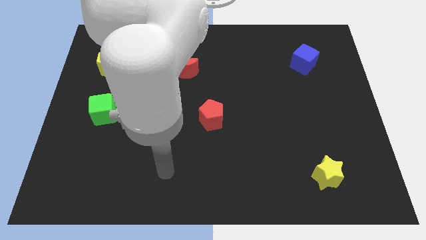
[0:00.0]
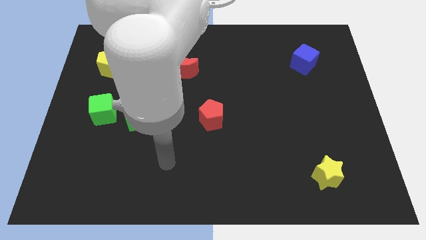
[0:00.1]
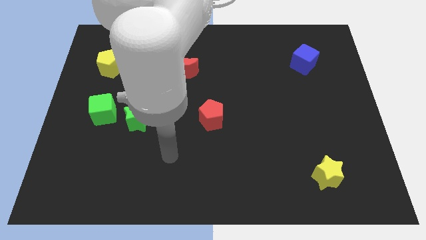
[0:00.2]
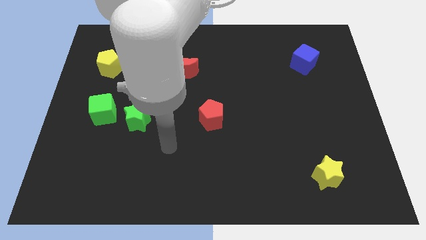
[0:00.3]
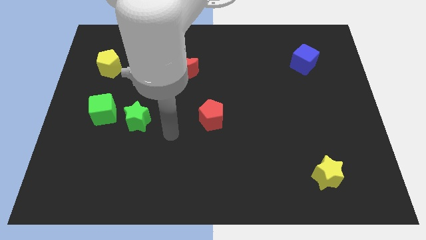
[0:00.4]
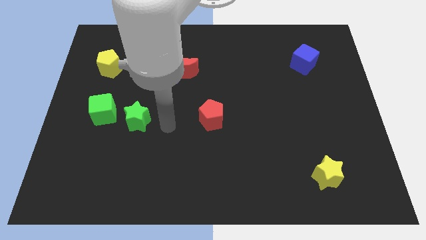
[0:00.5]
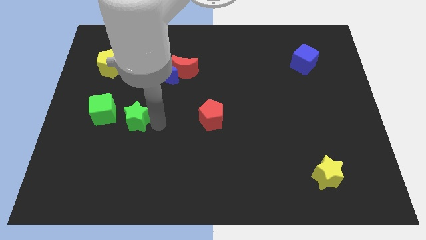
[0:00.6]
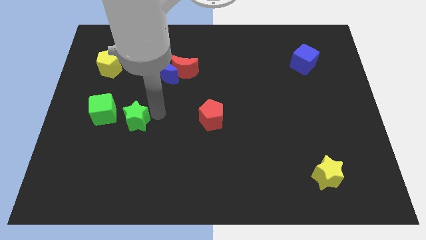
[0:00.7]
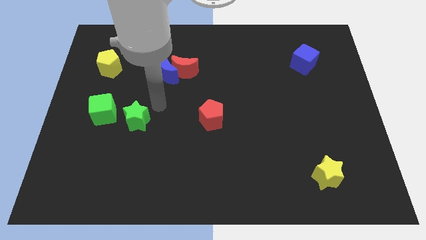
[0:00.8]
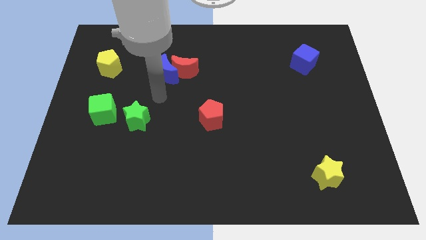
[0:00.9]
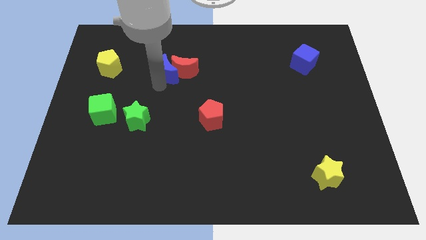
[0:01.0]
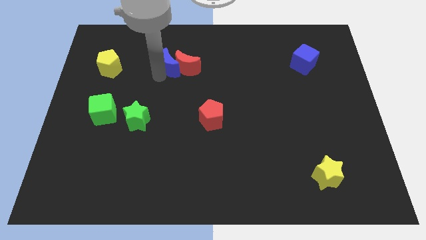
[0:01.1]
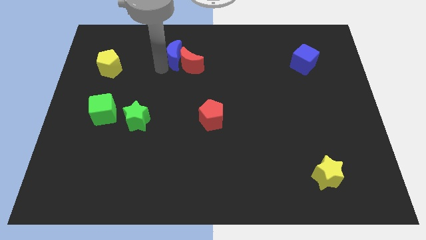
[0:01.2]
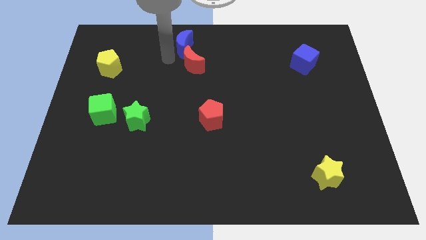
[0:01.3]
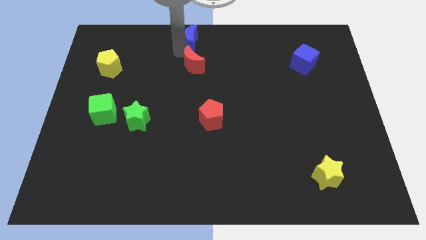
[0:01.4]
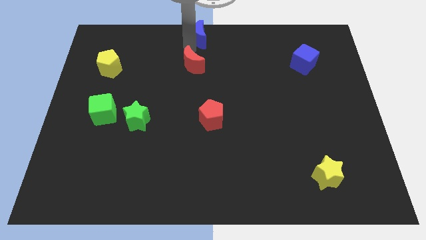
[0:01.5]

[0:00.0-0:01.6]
separate the red moon from the blue moon

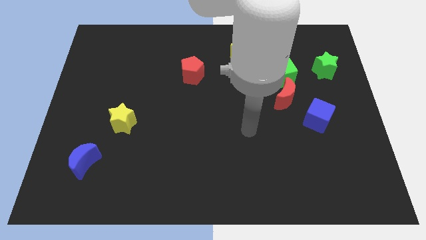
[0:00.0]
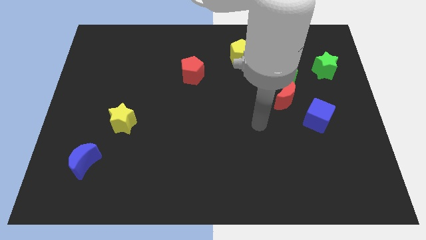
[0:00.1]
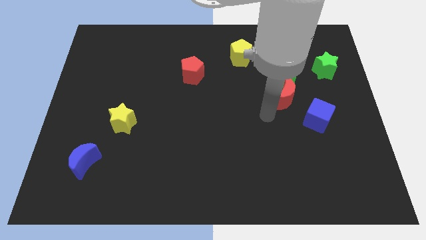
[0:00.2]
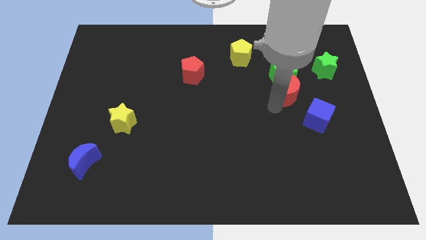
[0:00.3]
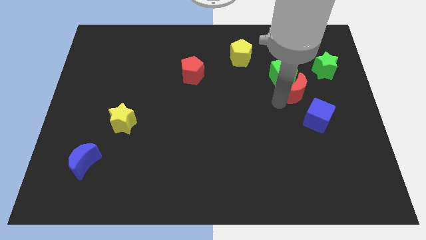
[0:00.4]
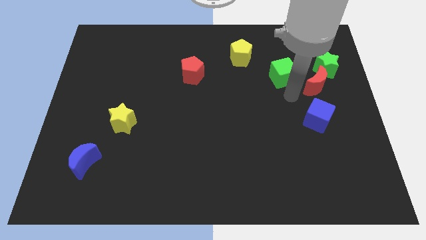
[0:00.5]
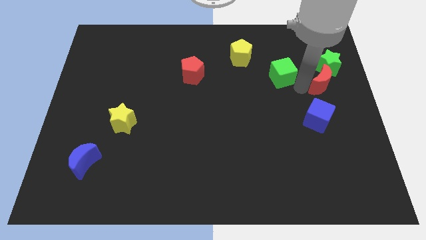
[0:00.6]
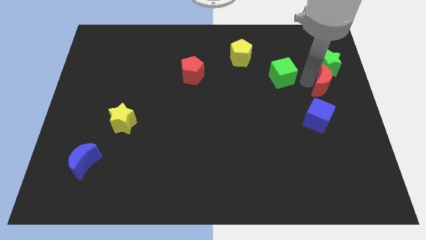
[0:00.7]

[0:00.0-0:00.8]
separate the green cube from the red moon

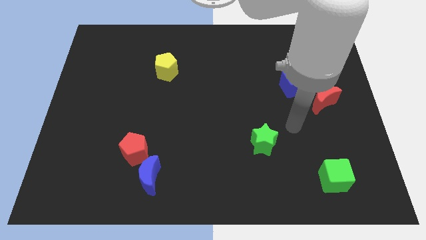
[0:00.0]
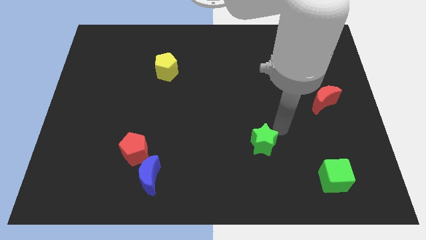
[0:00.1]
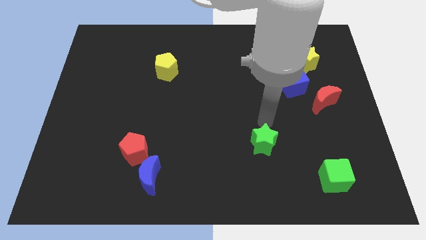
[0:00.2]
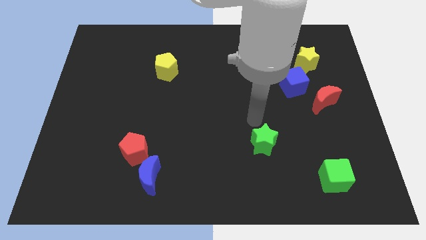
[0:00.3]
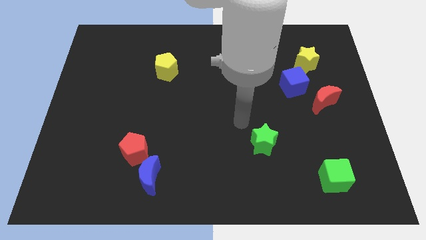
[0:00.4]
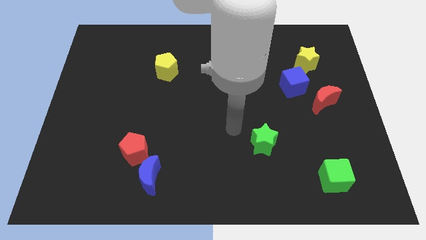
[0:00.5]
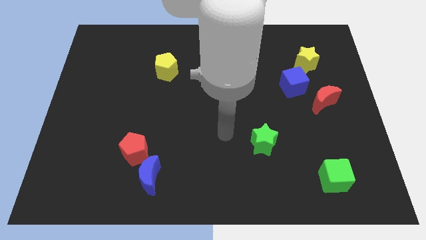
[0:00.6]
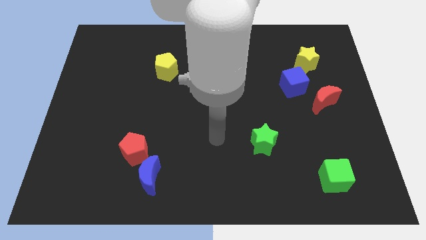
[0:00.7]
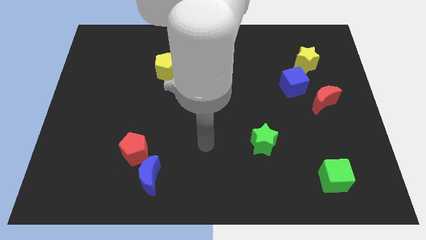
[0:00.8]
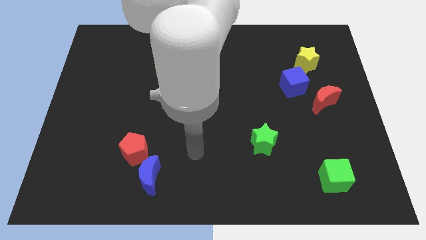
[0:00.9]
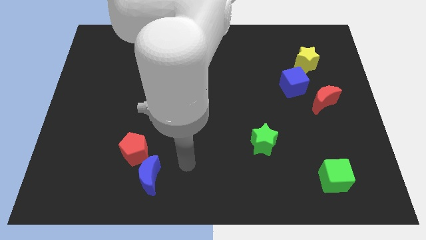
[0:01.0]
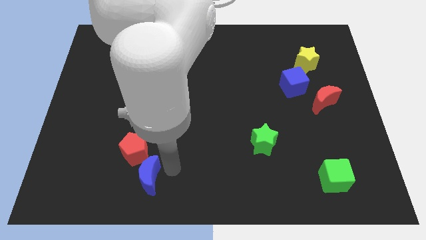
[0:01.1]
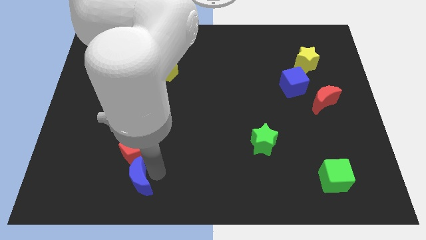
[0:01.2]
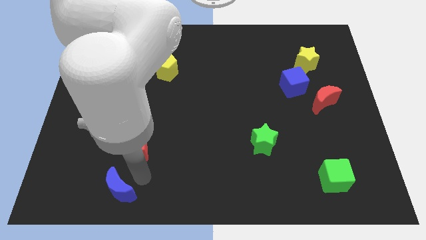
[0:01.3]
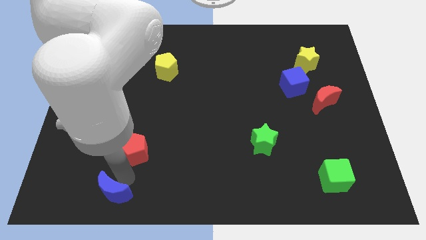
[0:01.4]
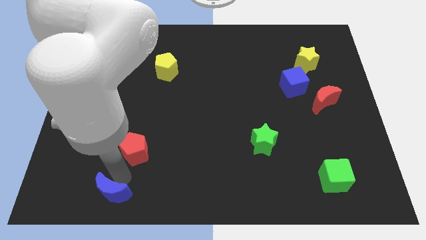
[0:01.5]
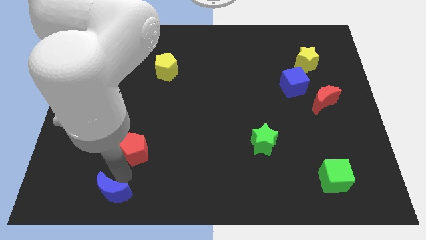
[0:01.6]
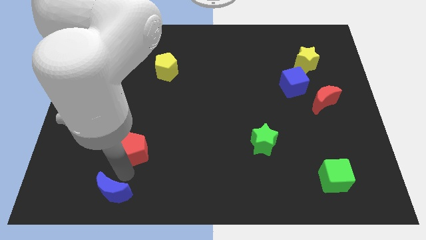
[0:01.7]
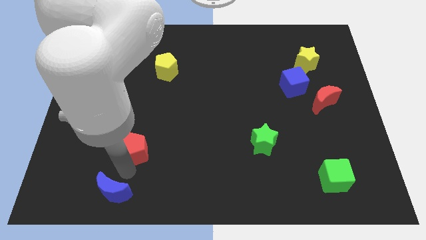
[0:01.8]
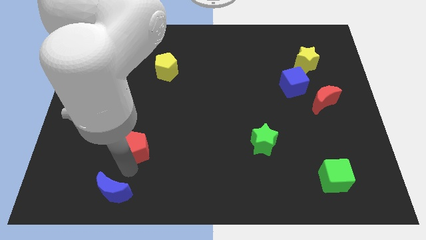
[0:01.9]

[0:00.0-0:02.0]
pull the red pentagon apart from the blue moon

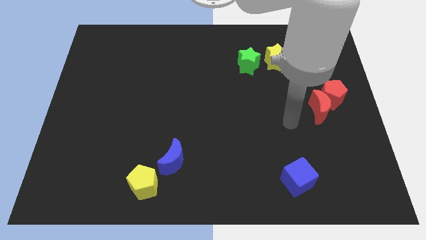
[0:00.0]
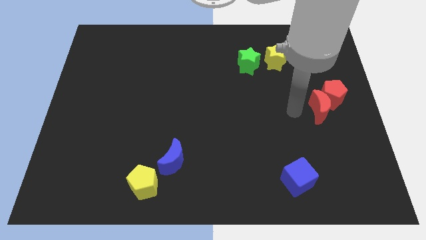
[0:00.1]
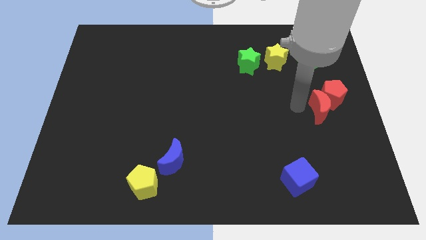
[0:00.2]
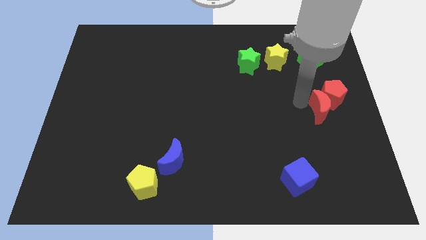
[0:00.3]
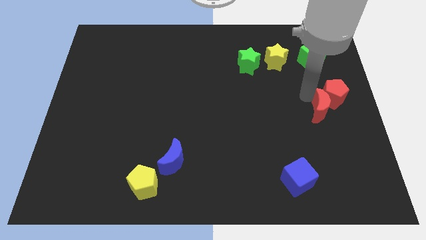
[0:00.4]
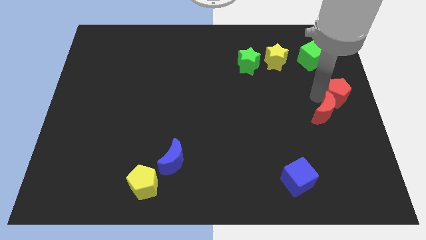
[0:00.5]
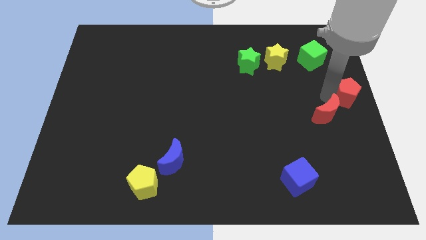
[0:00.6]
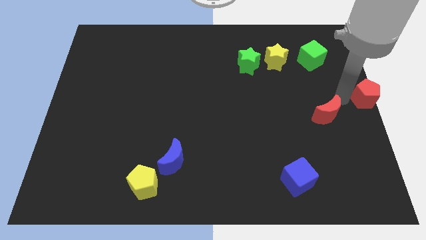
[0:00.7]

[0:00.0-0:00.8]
pull the red moon apart from the red pentagon

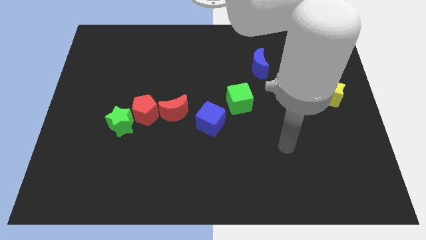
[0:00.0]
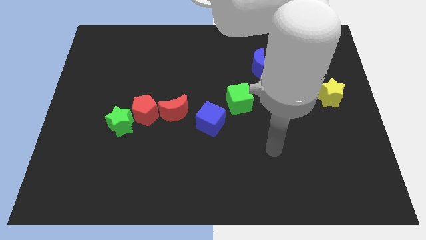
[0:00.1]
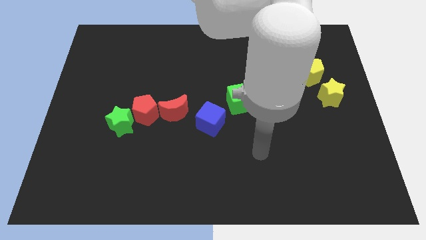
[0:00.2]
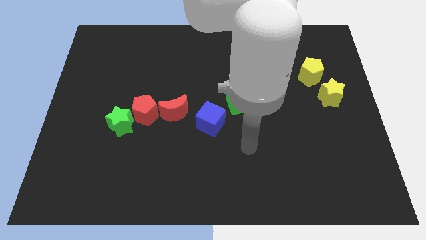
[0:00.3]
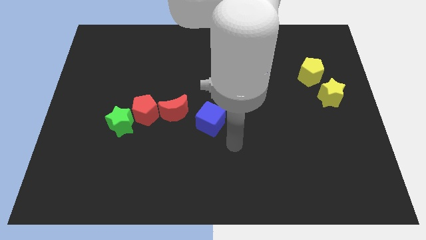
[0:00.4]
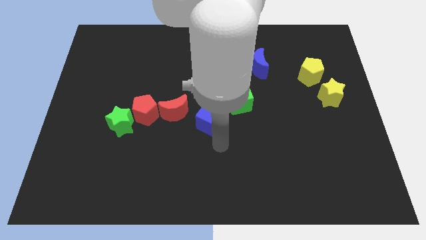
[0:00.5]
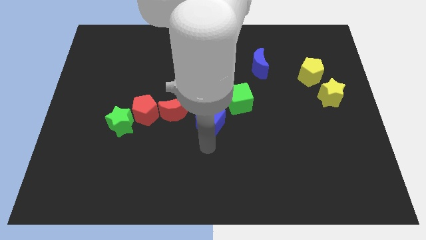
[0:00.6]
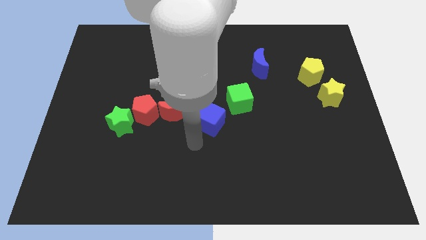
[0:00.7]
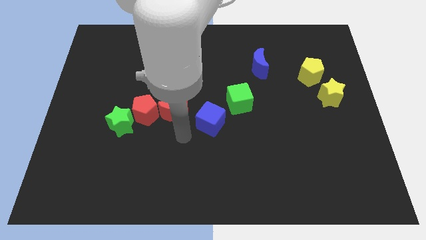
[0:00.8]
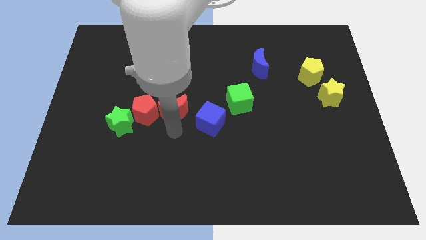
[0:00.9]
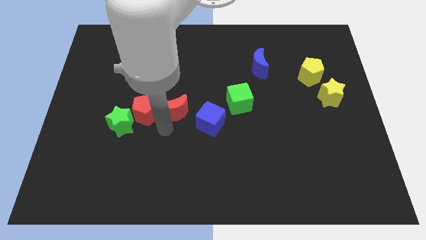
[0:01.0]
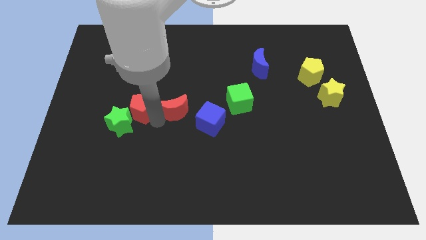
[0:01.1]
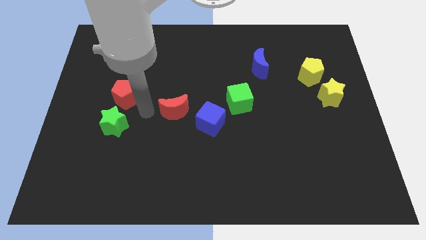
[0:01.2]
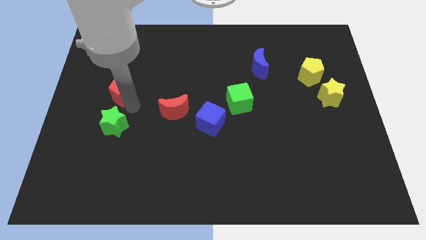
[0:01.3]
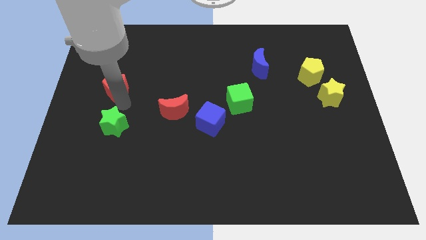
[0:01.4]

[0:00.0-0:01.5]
move the green star away from the red pentagon

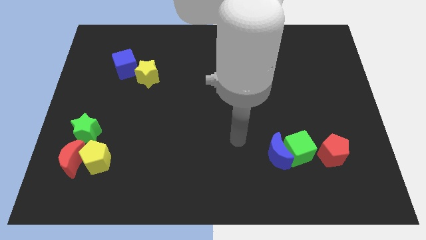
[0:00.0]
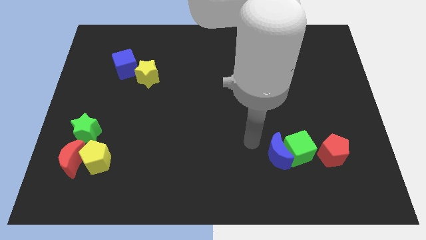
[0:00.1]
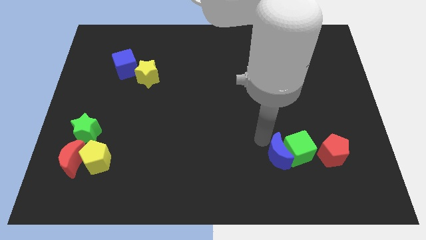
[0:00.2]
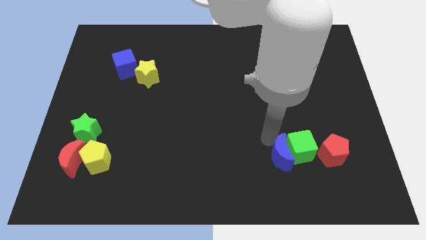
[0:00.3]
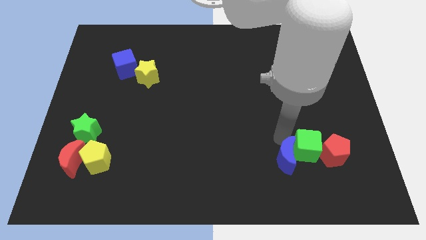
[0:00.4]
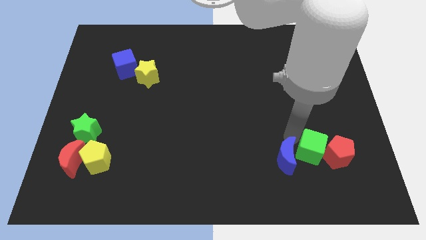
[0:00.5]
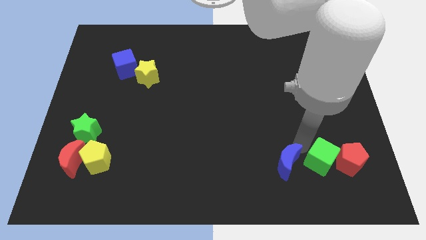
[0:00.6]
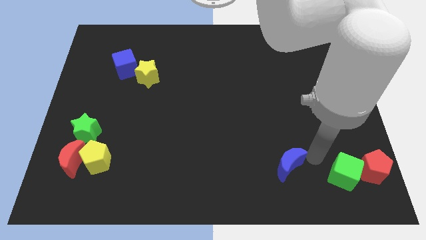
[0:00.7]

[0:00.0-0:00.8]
pull the blue moon apart from the green cube

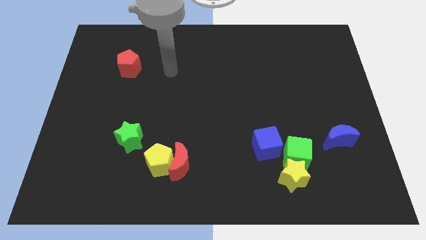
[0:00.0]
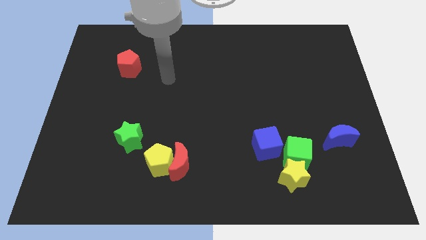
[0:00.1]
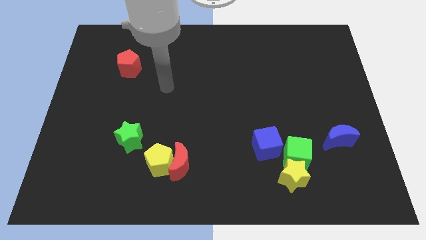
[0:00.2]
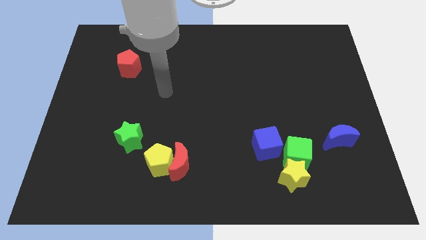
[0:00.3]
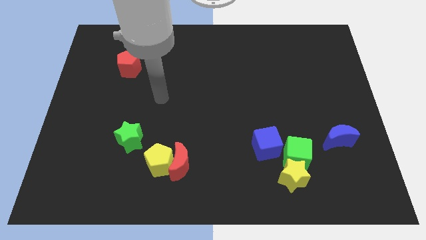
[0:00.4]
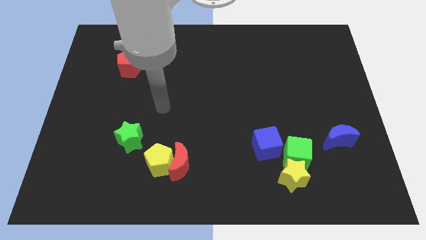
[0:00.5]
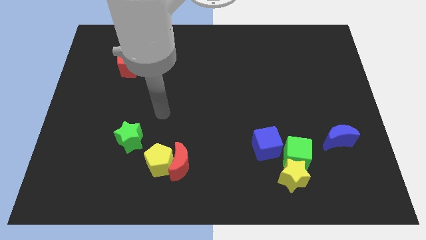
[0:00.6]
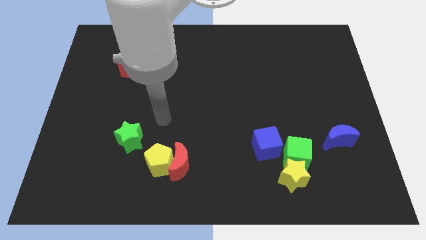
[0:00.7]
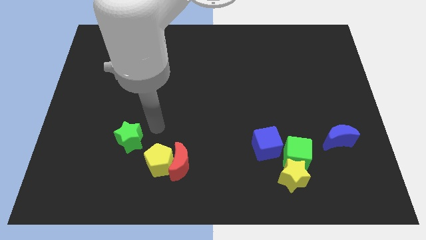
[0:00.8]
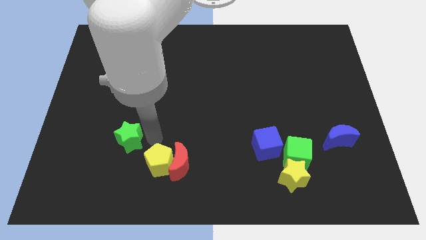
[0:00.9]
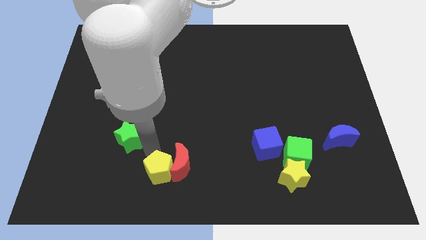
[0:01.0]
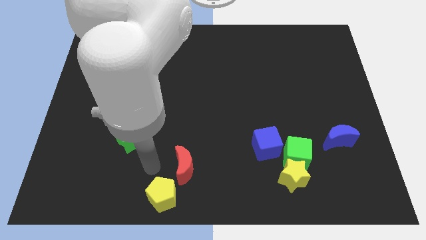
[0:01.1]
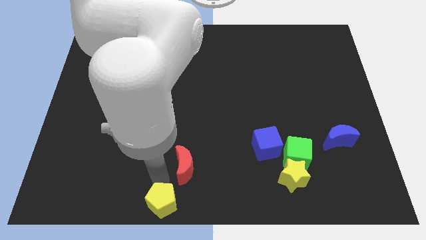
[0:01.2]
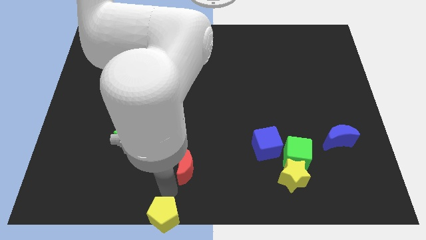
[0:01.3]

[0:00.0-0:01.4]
move the red moon away from the yellow pentagon

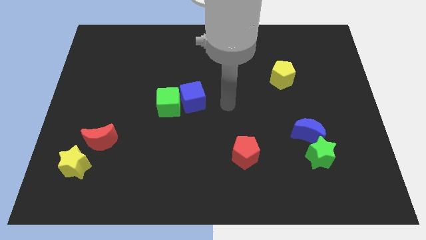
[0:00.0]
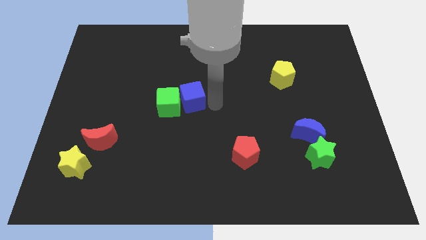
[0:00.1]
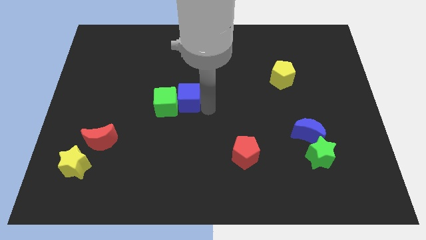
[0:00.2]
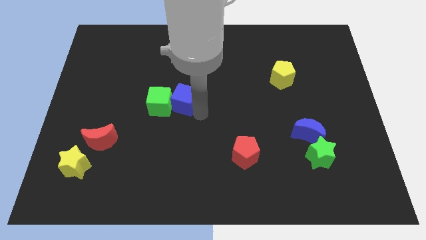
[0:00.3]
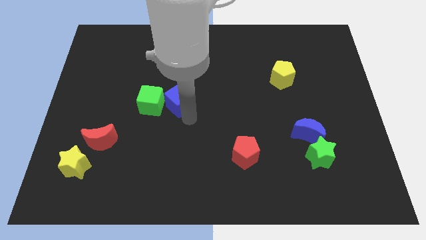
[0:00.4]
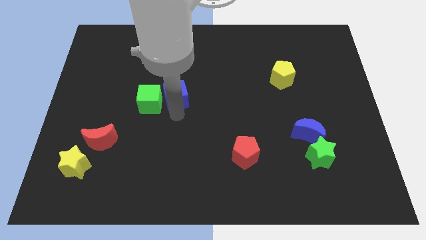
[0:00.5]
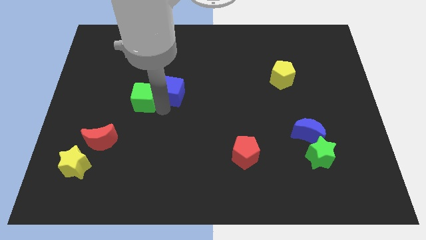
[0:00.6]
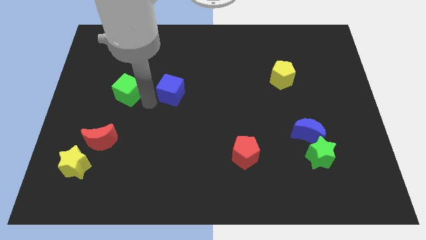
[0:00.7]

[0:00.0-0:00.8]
move the blue cube away from the green cube
